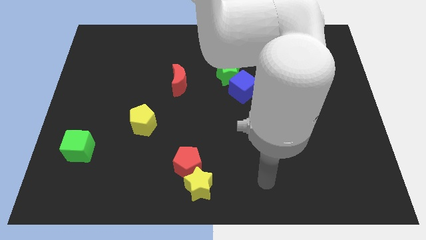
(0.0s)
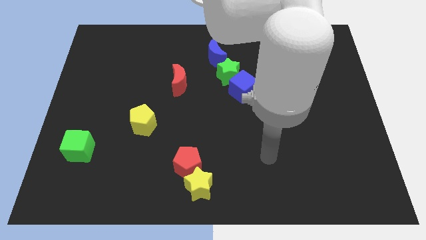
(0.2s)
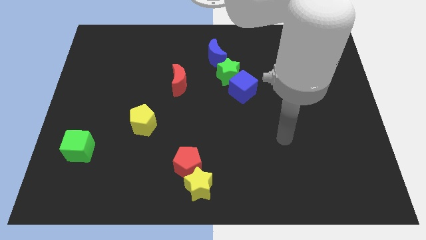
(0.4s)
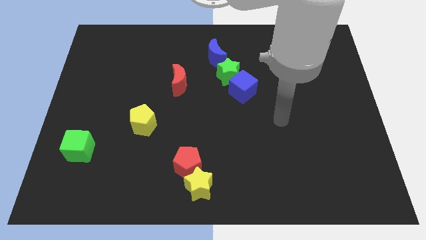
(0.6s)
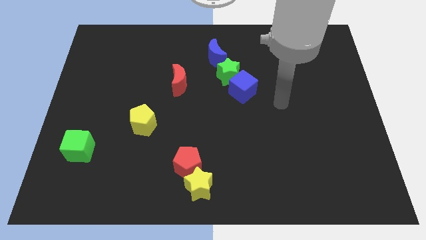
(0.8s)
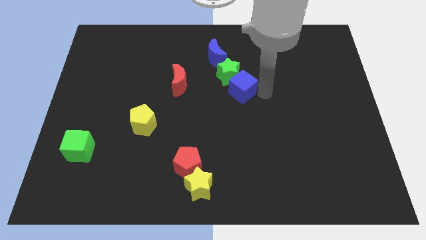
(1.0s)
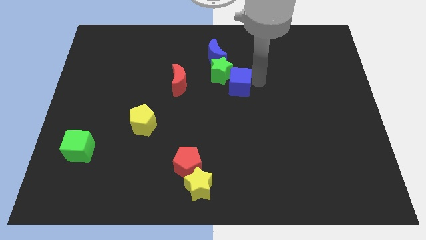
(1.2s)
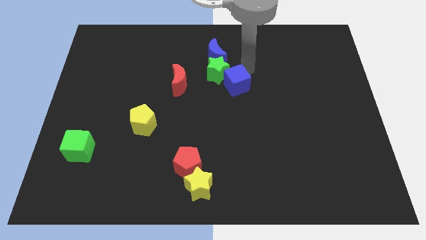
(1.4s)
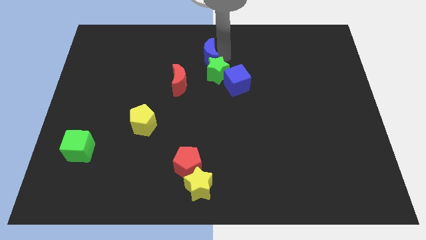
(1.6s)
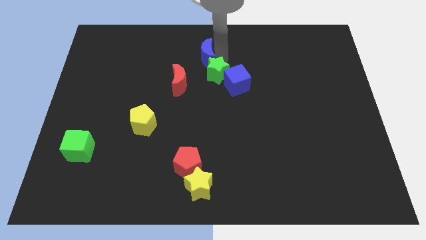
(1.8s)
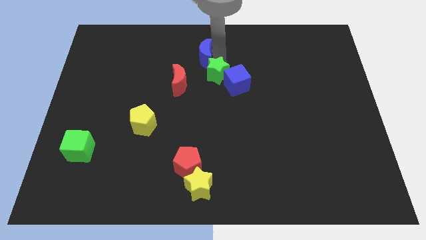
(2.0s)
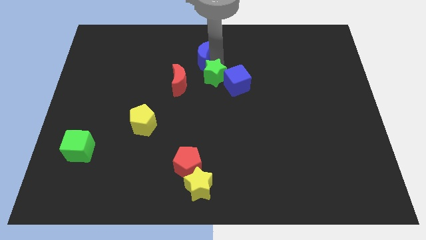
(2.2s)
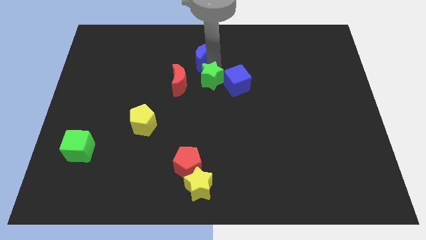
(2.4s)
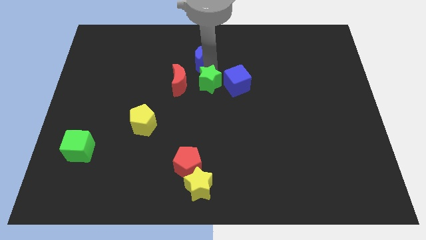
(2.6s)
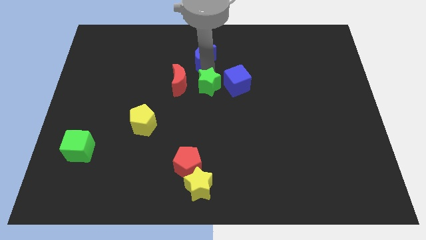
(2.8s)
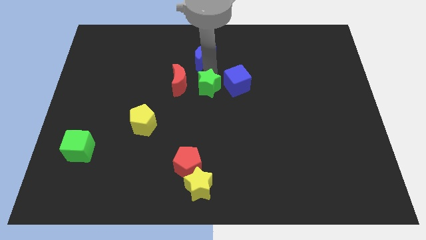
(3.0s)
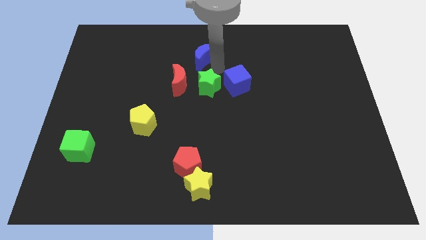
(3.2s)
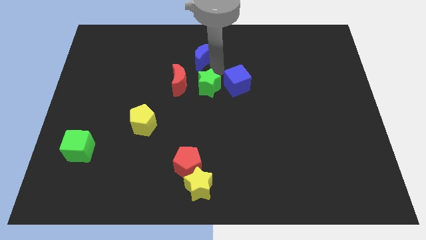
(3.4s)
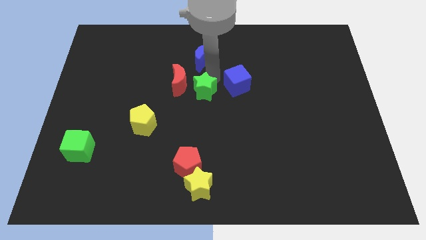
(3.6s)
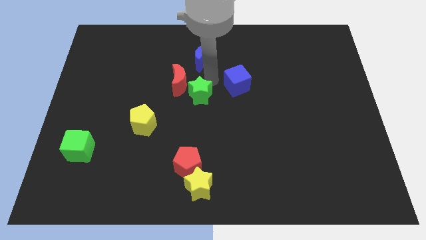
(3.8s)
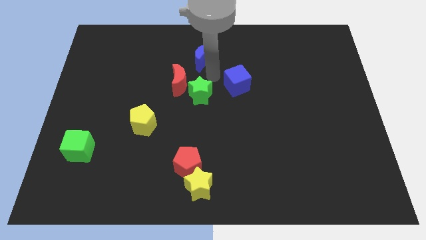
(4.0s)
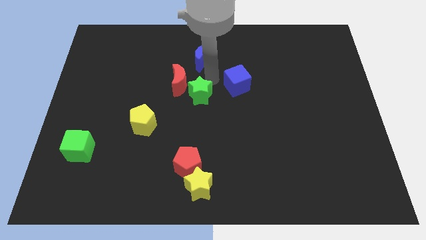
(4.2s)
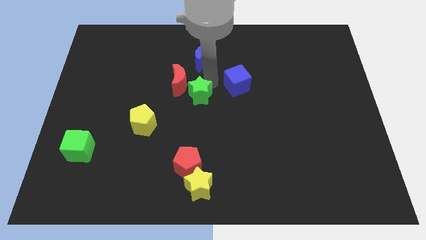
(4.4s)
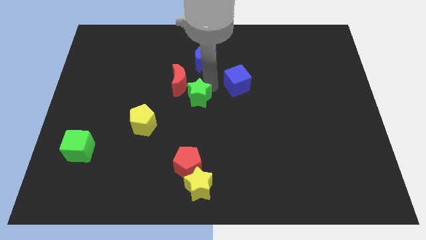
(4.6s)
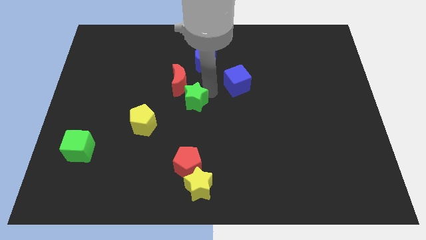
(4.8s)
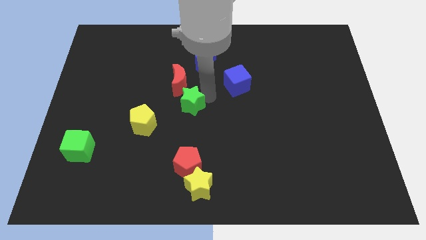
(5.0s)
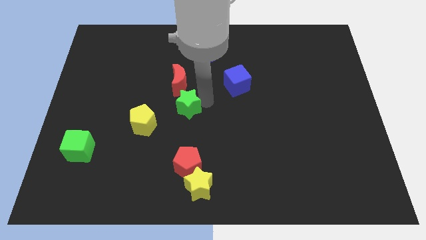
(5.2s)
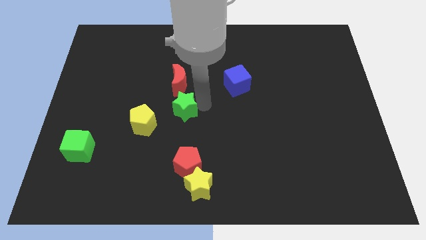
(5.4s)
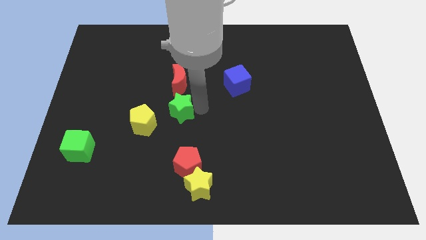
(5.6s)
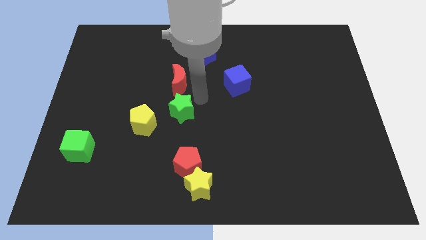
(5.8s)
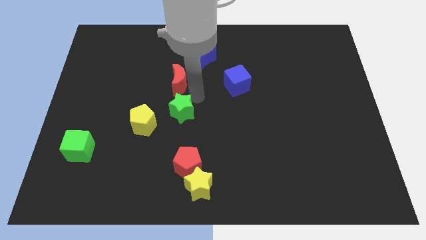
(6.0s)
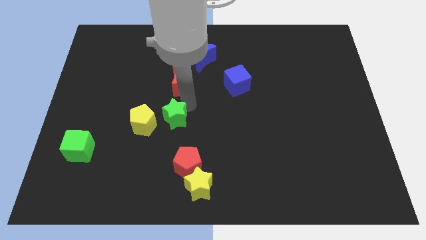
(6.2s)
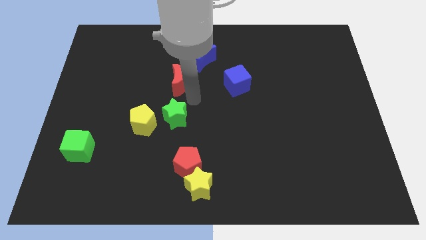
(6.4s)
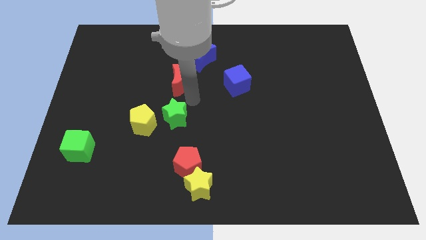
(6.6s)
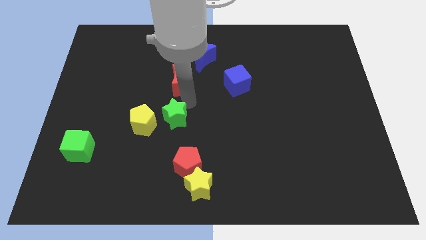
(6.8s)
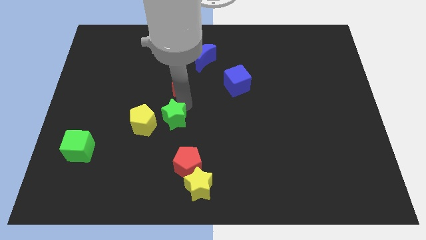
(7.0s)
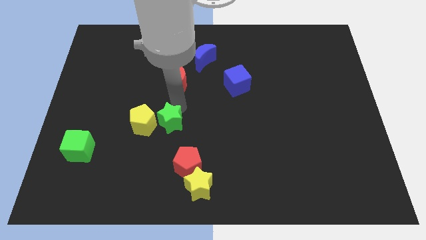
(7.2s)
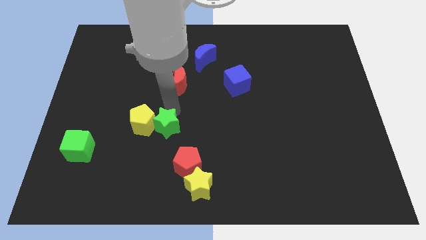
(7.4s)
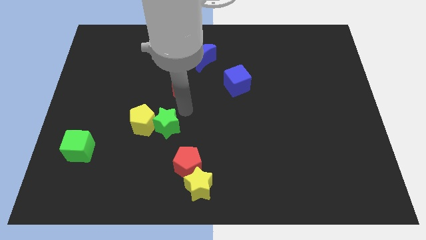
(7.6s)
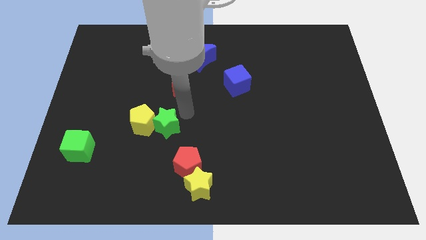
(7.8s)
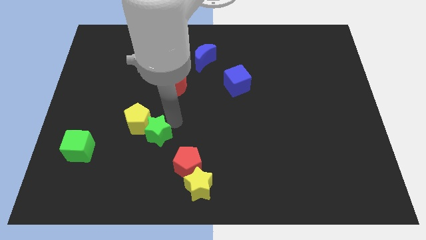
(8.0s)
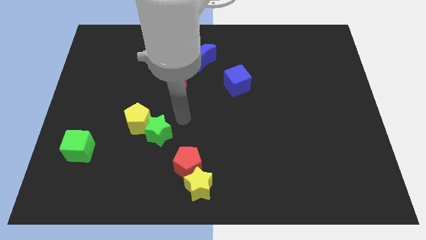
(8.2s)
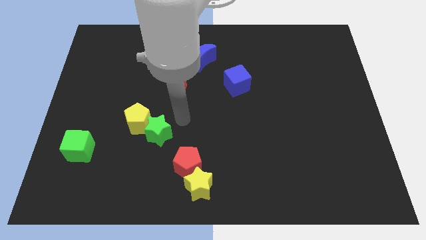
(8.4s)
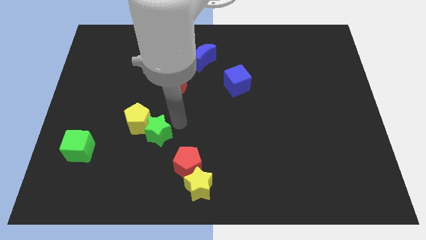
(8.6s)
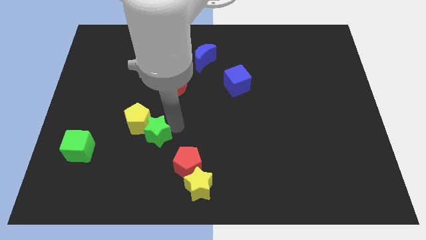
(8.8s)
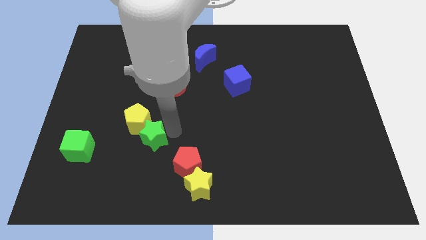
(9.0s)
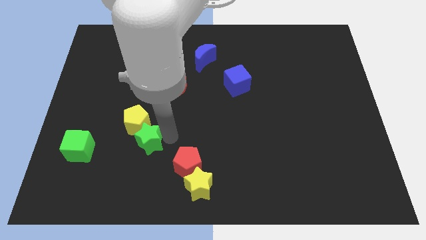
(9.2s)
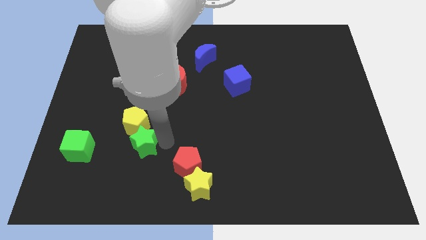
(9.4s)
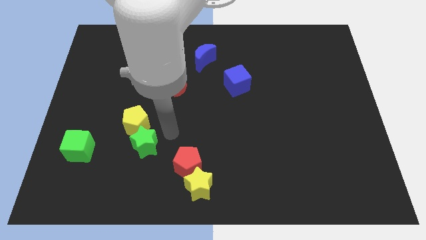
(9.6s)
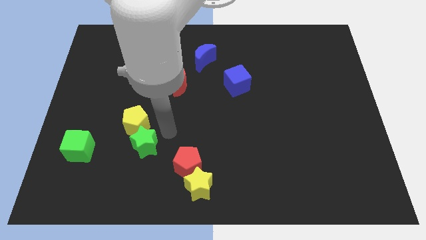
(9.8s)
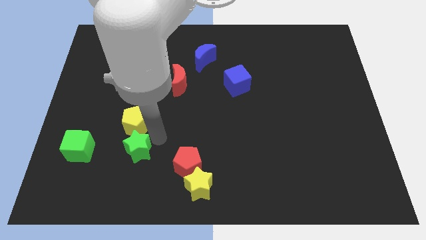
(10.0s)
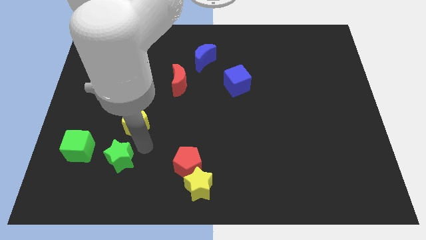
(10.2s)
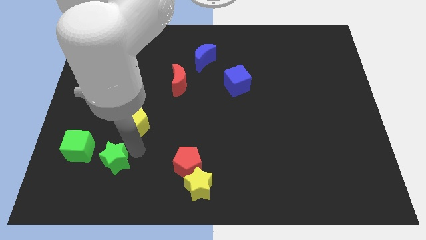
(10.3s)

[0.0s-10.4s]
slide the green star diagonally down and to the right of the green cube
